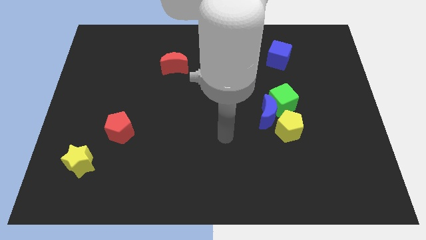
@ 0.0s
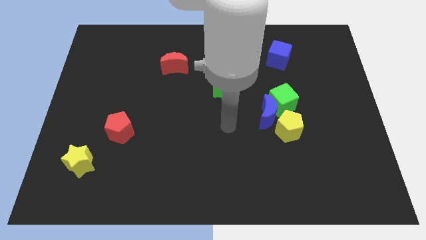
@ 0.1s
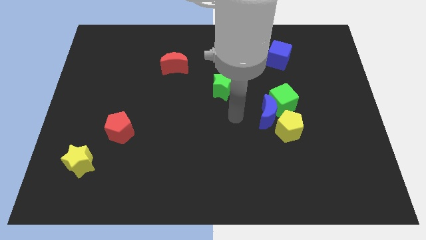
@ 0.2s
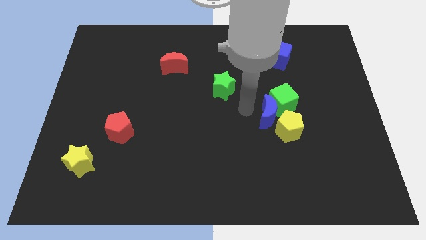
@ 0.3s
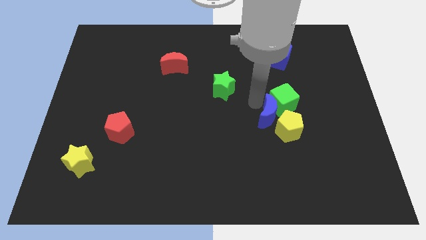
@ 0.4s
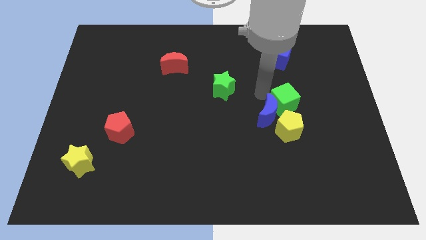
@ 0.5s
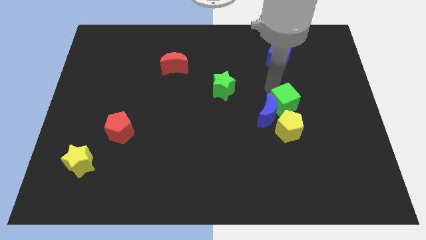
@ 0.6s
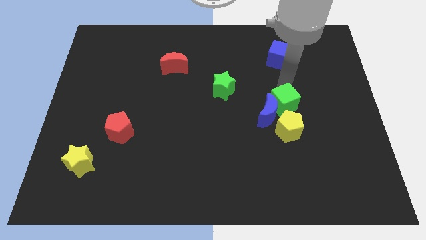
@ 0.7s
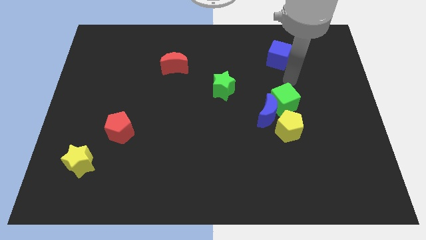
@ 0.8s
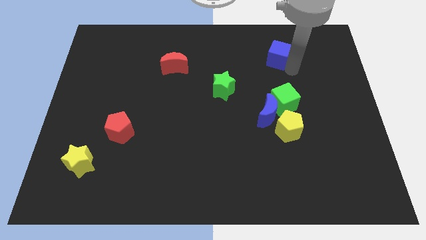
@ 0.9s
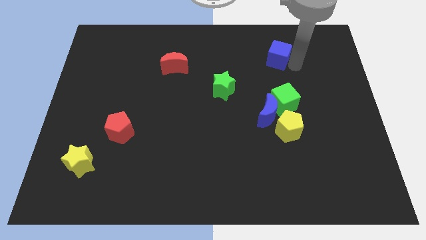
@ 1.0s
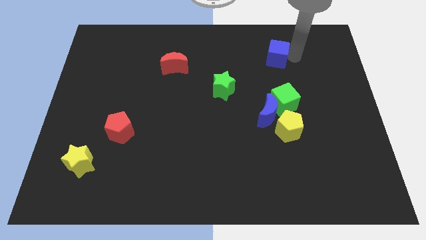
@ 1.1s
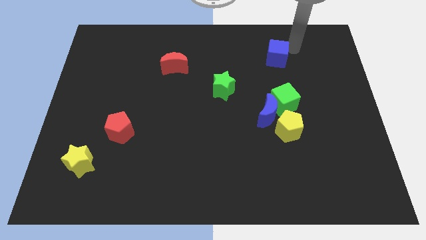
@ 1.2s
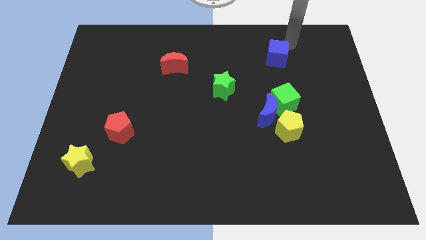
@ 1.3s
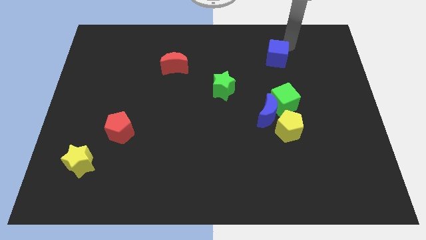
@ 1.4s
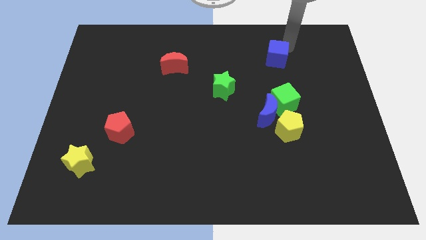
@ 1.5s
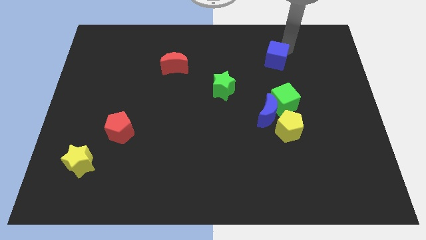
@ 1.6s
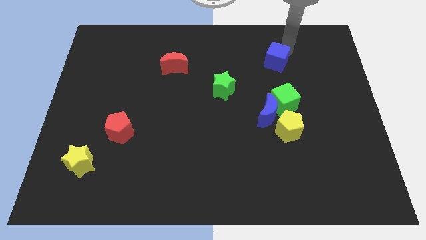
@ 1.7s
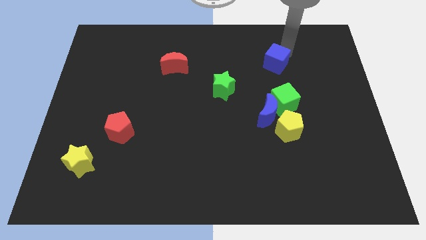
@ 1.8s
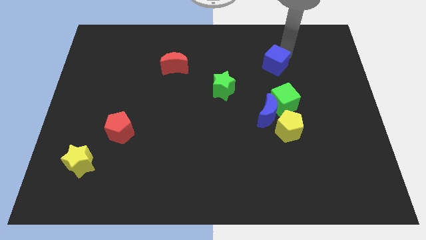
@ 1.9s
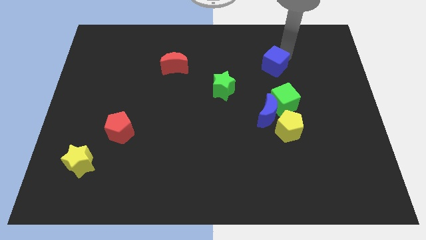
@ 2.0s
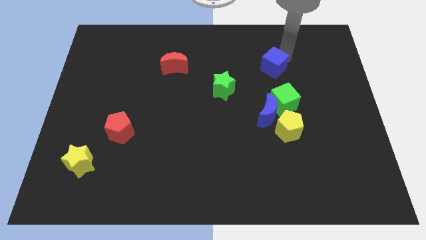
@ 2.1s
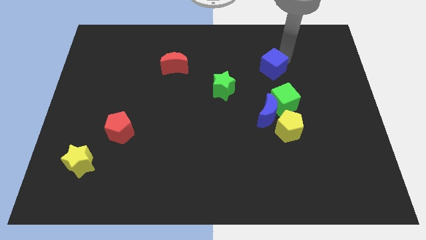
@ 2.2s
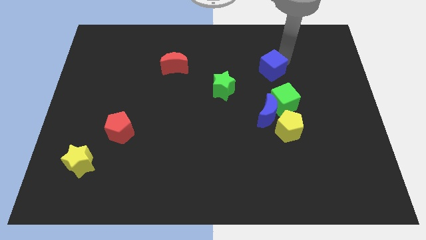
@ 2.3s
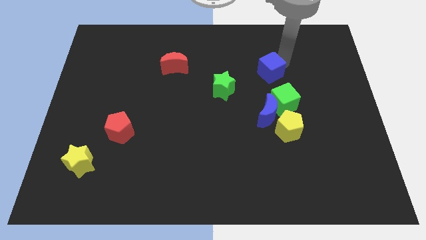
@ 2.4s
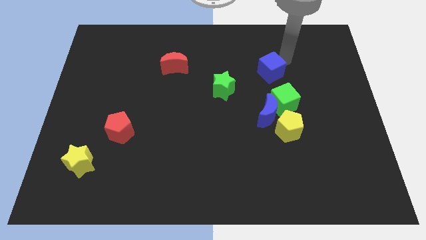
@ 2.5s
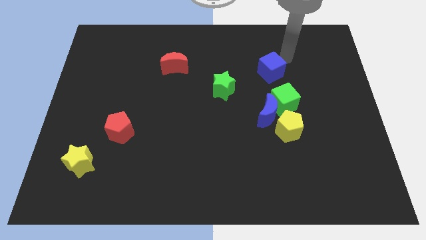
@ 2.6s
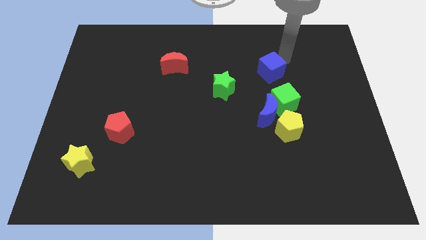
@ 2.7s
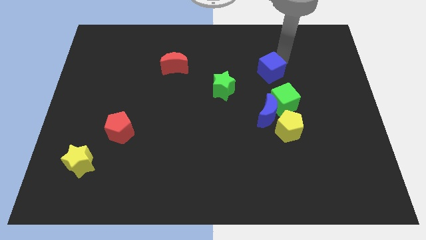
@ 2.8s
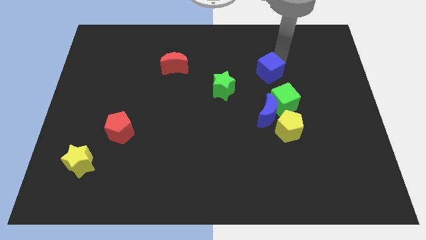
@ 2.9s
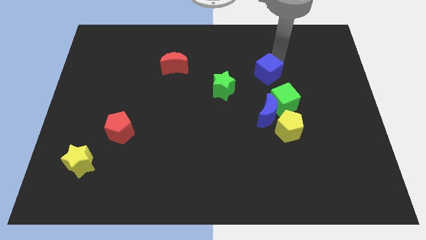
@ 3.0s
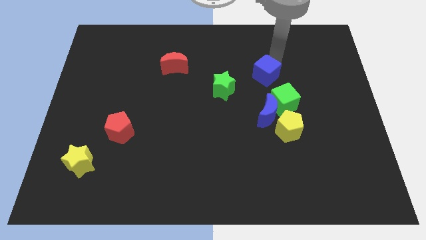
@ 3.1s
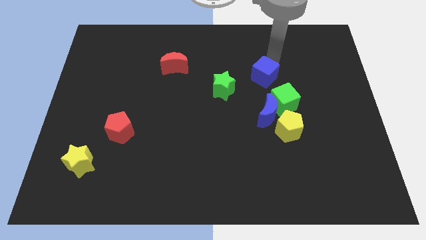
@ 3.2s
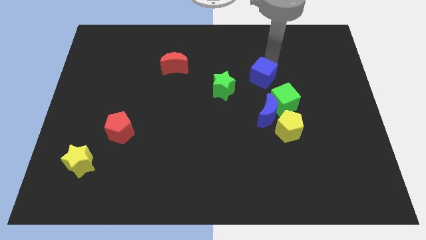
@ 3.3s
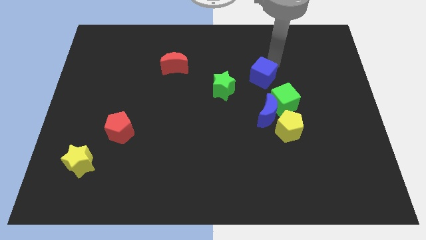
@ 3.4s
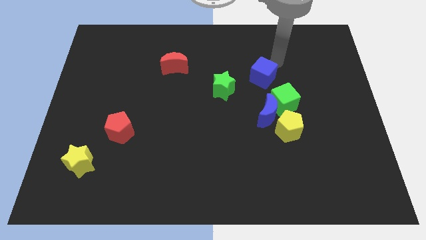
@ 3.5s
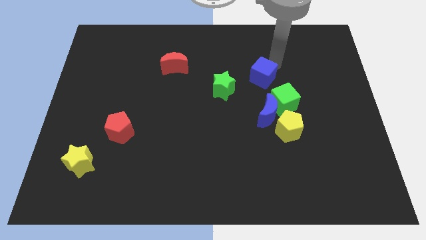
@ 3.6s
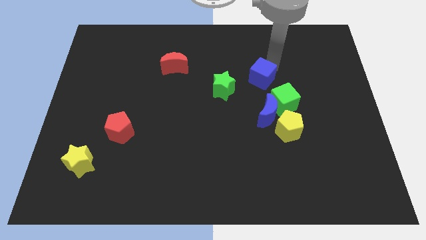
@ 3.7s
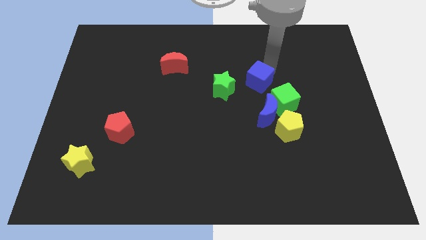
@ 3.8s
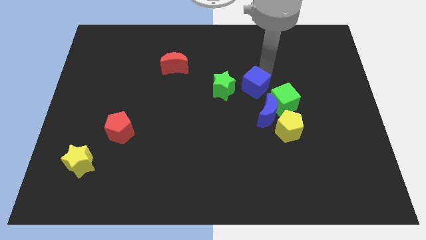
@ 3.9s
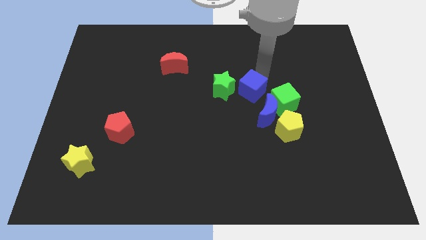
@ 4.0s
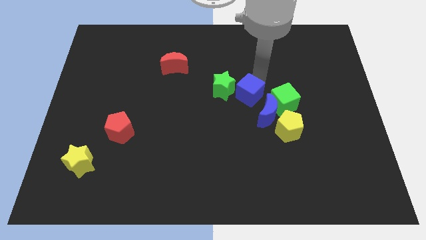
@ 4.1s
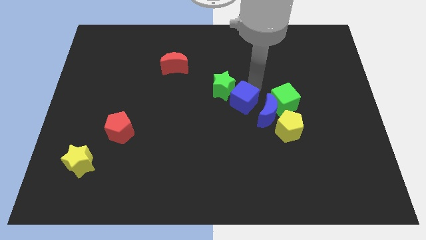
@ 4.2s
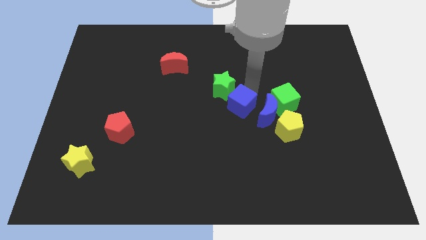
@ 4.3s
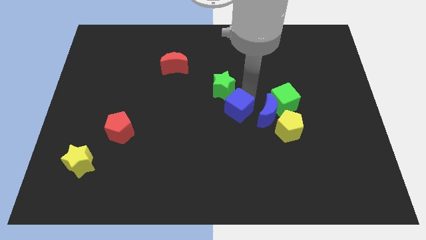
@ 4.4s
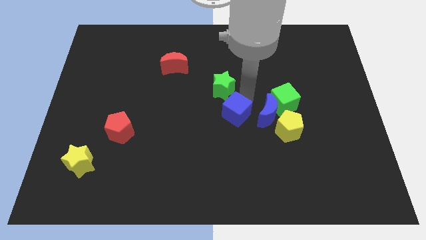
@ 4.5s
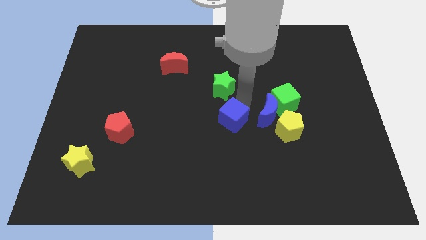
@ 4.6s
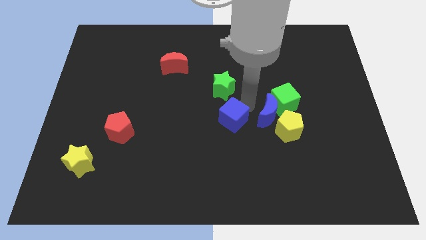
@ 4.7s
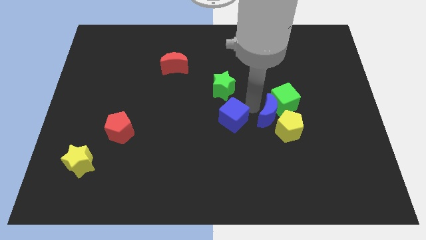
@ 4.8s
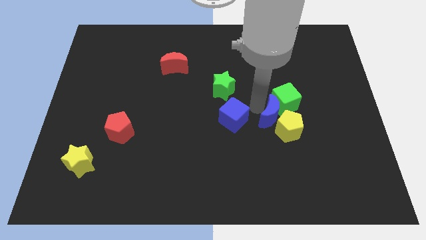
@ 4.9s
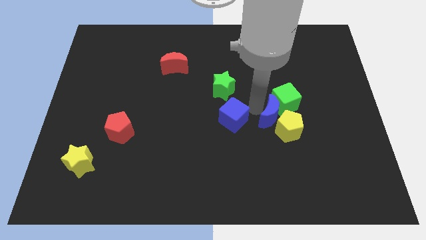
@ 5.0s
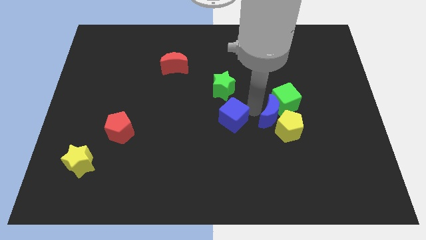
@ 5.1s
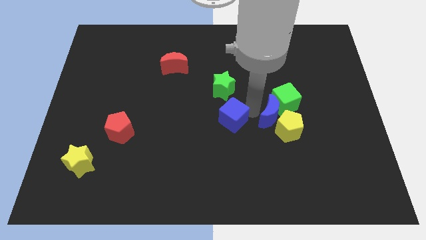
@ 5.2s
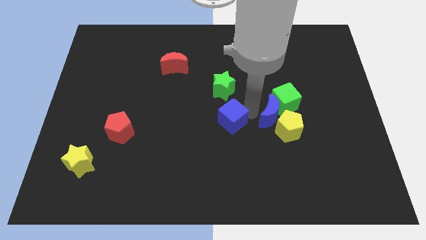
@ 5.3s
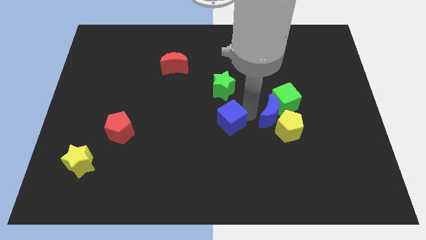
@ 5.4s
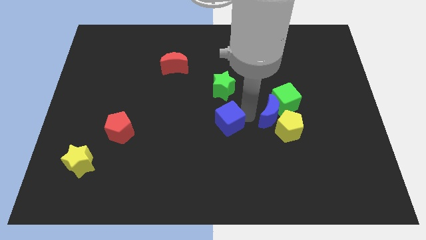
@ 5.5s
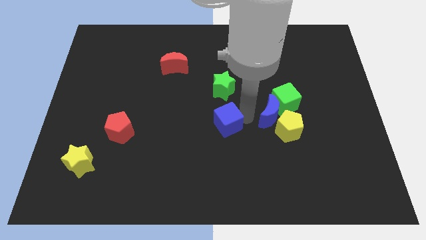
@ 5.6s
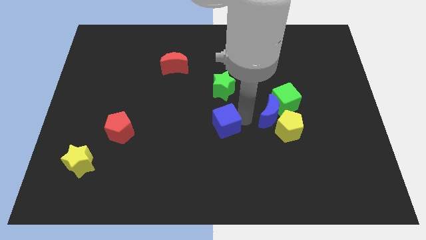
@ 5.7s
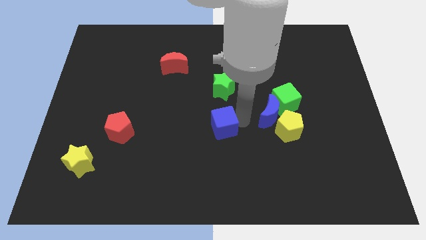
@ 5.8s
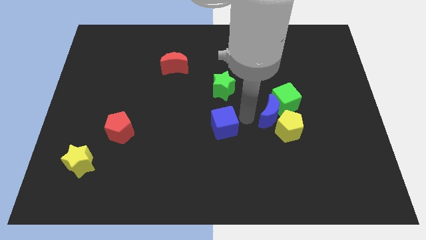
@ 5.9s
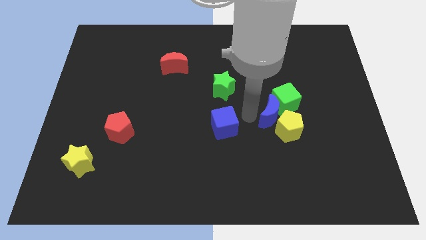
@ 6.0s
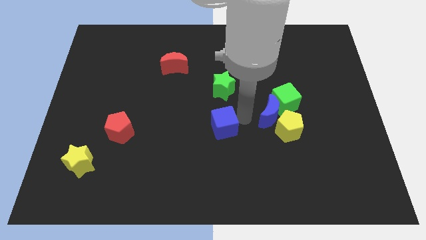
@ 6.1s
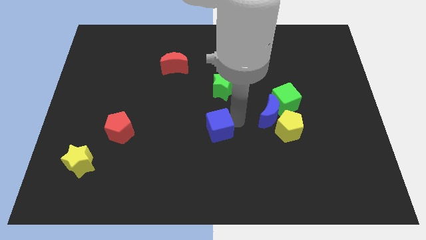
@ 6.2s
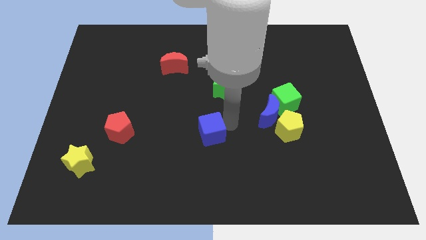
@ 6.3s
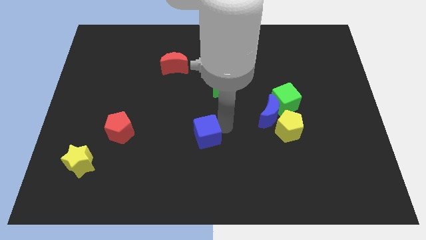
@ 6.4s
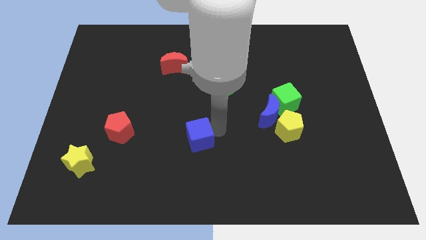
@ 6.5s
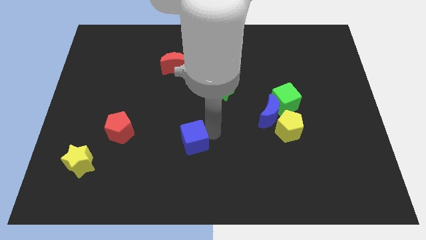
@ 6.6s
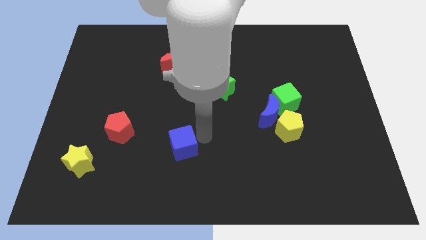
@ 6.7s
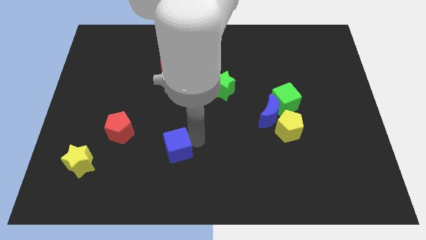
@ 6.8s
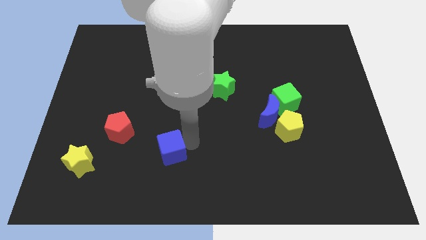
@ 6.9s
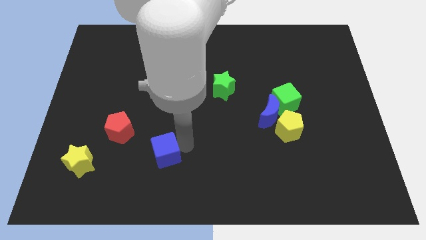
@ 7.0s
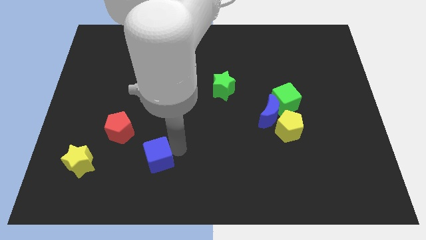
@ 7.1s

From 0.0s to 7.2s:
push the blue cube just right of the yellow star

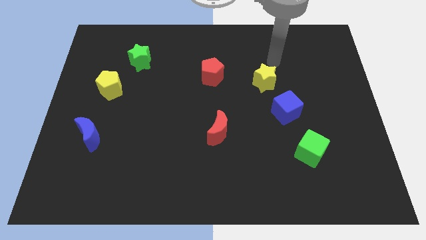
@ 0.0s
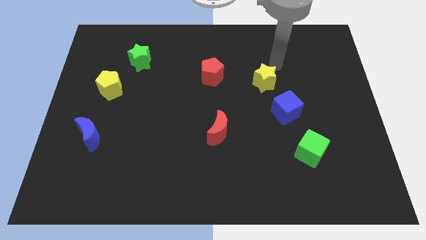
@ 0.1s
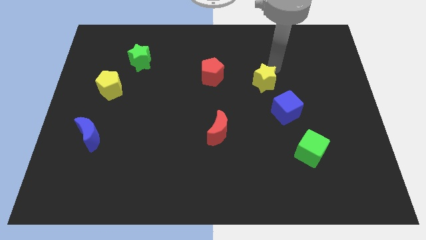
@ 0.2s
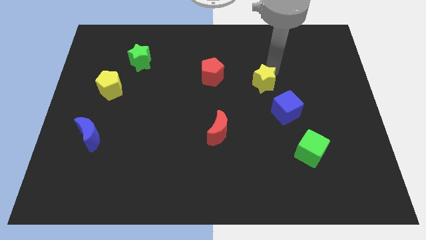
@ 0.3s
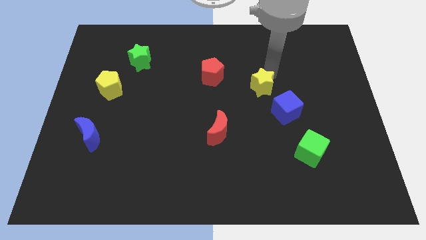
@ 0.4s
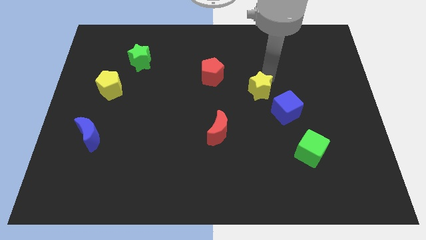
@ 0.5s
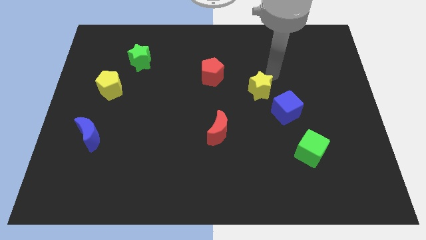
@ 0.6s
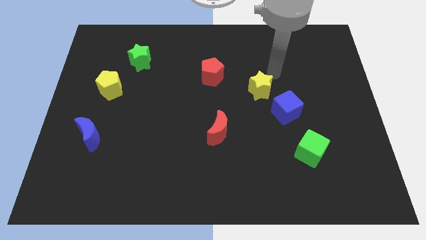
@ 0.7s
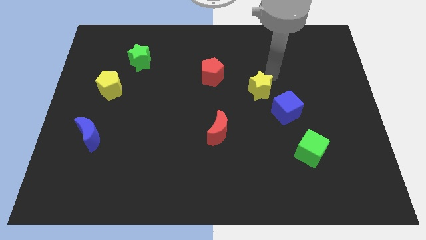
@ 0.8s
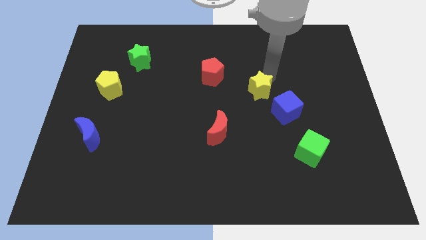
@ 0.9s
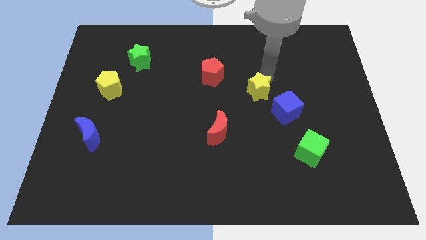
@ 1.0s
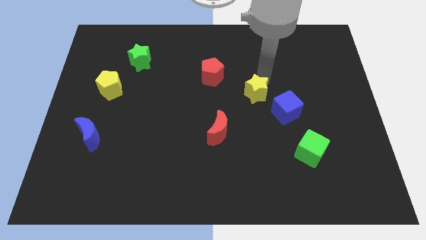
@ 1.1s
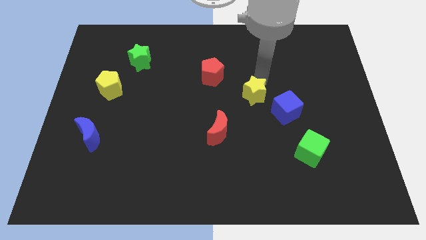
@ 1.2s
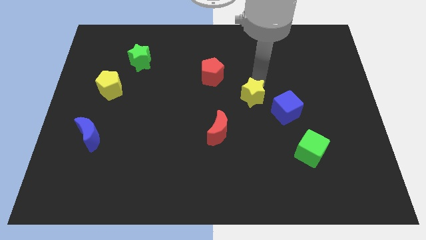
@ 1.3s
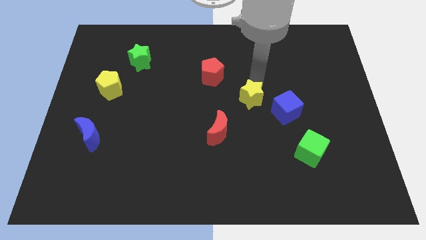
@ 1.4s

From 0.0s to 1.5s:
slide the yellow star to the top right side of the red moon
